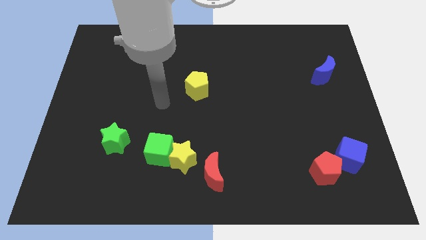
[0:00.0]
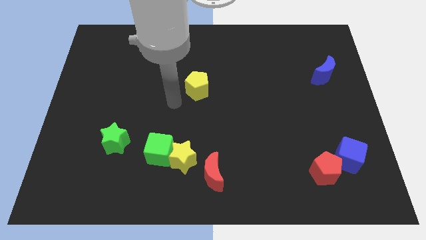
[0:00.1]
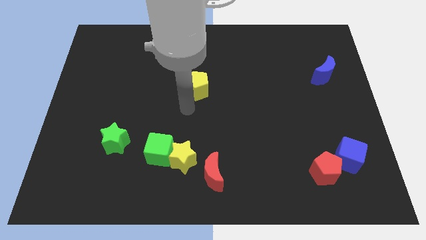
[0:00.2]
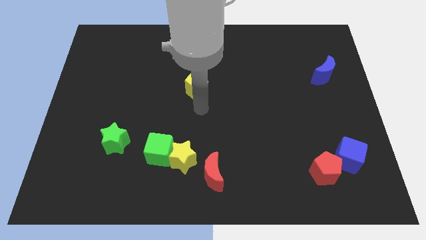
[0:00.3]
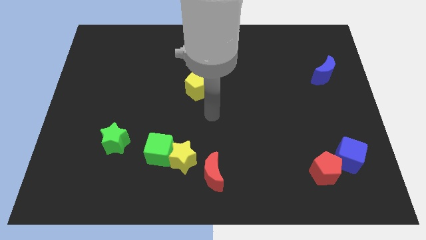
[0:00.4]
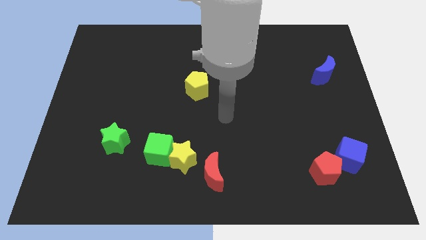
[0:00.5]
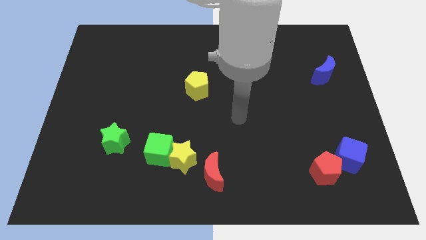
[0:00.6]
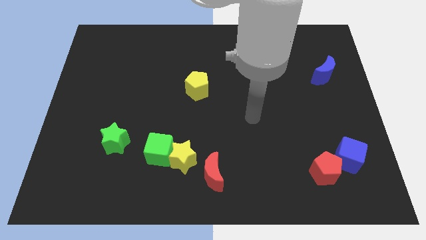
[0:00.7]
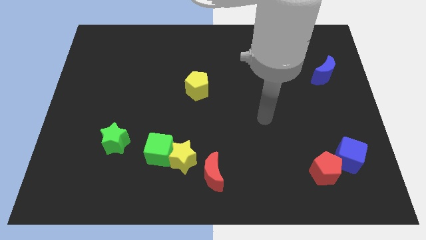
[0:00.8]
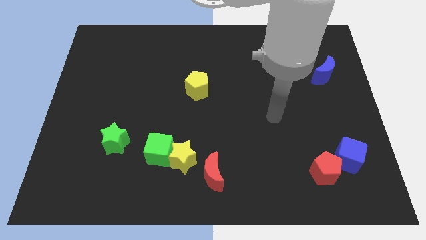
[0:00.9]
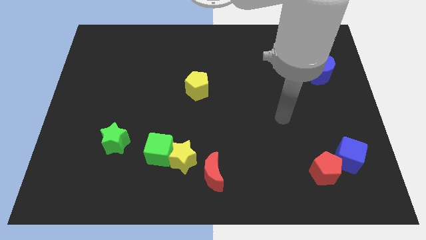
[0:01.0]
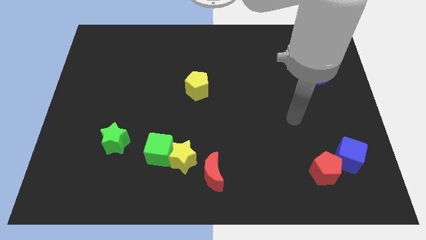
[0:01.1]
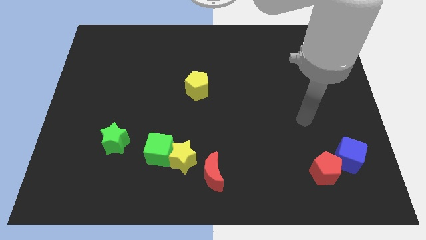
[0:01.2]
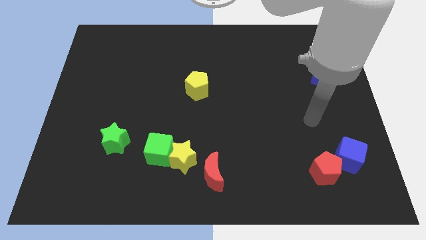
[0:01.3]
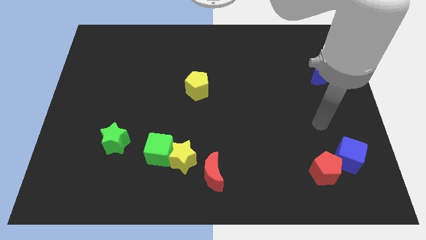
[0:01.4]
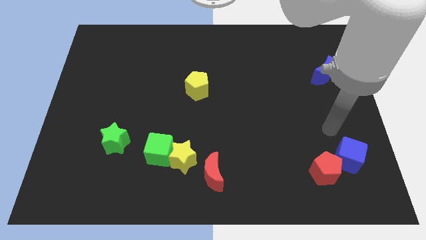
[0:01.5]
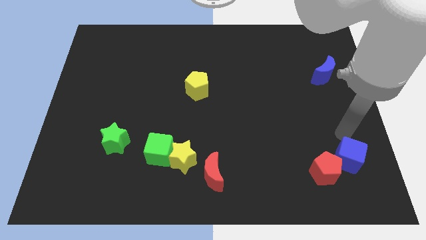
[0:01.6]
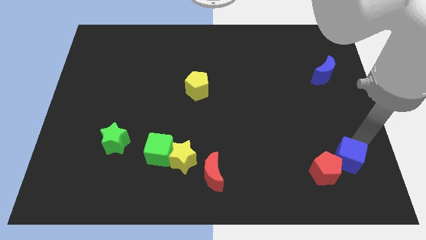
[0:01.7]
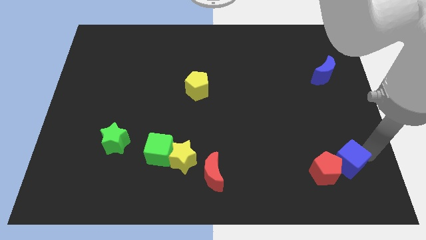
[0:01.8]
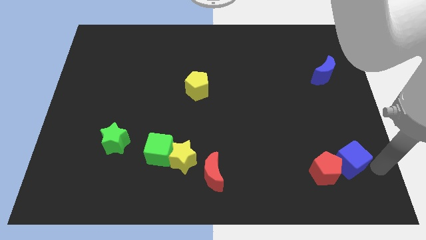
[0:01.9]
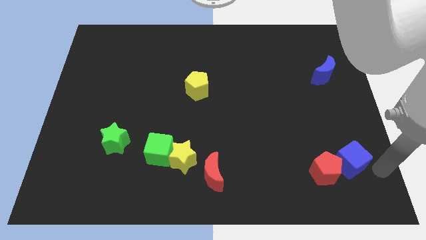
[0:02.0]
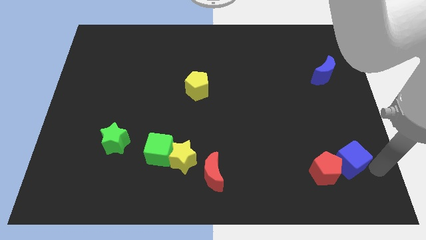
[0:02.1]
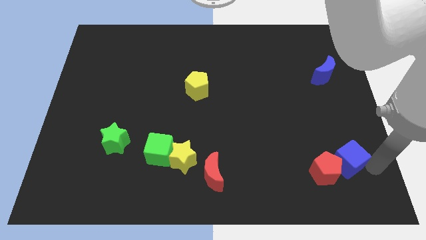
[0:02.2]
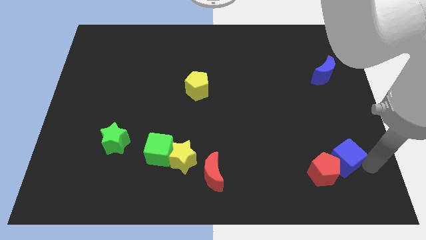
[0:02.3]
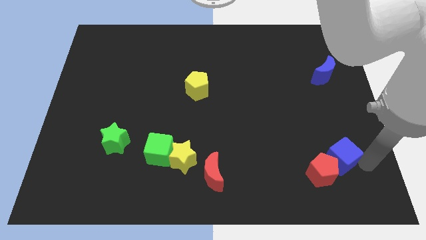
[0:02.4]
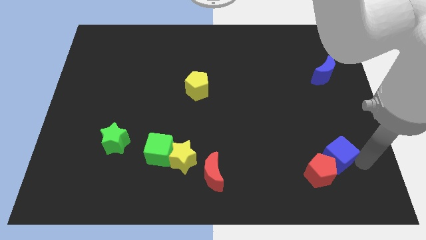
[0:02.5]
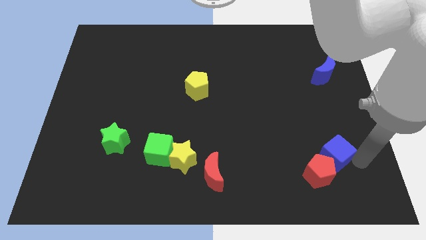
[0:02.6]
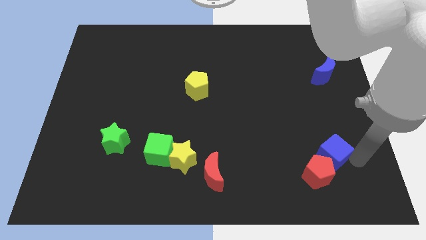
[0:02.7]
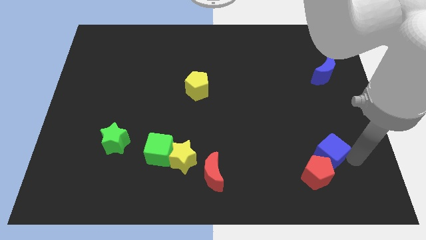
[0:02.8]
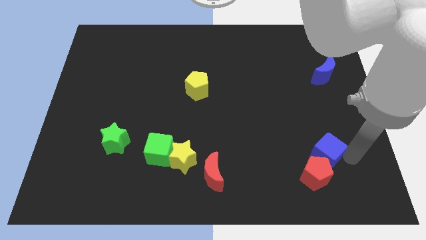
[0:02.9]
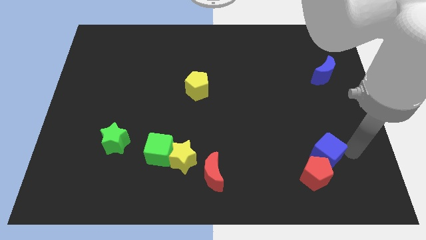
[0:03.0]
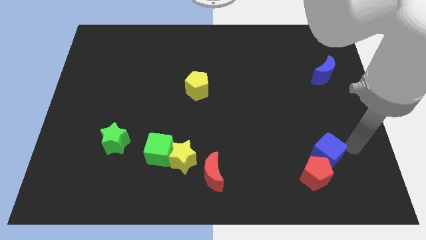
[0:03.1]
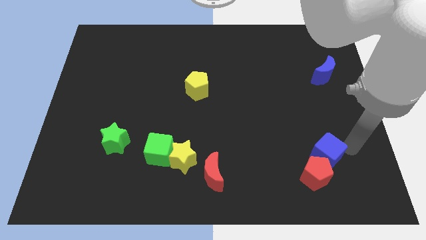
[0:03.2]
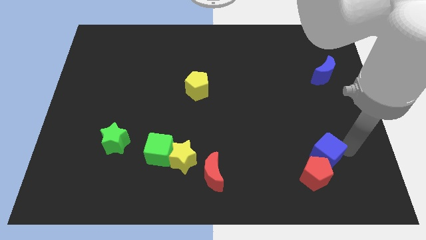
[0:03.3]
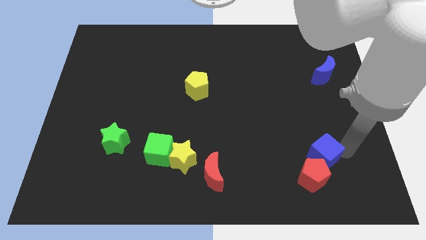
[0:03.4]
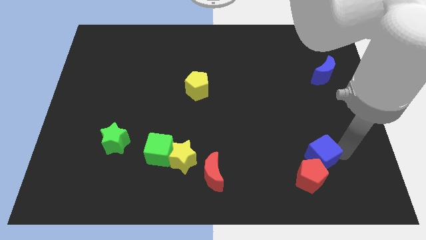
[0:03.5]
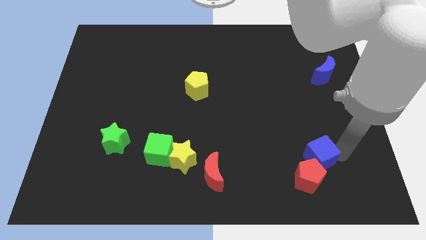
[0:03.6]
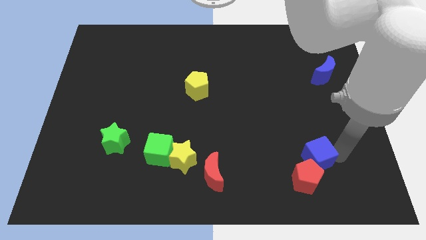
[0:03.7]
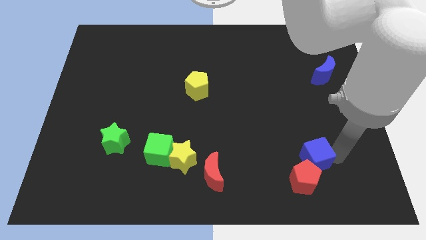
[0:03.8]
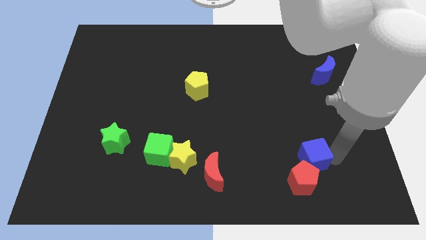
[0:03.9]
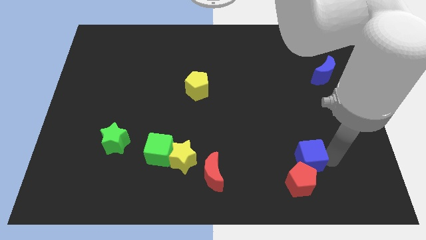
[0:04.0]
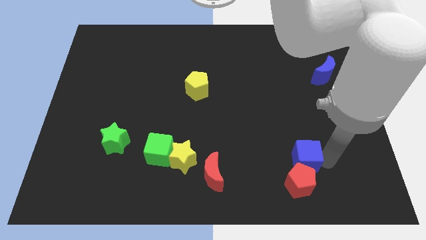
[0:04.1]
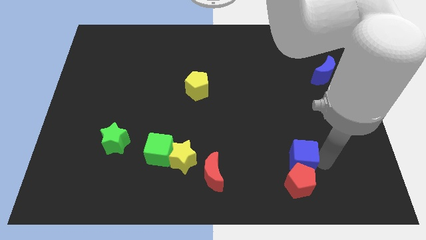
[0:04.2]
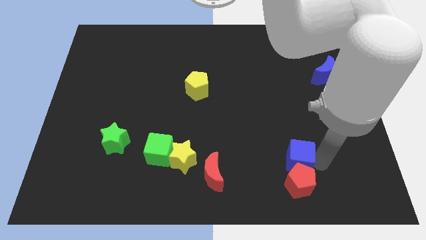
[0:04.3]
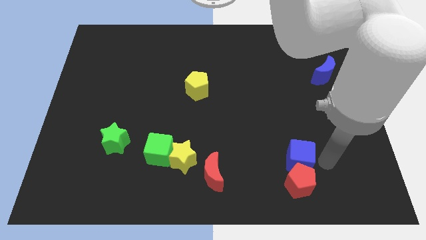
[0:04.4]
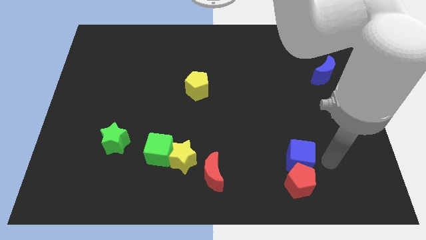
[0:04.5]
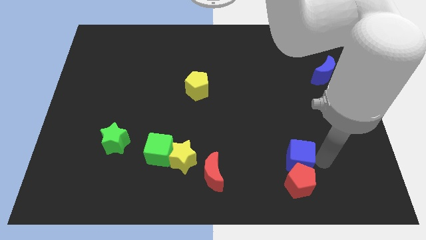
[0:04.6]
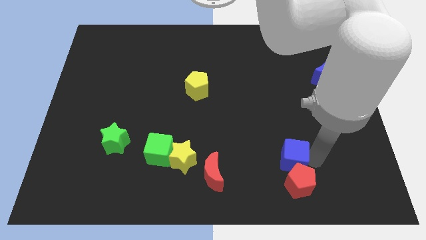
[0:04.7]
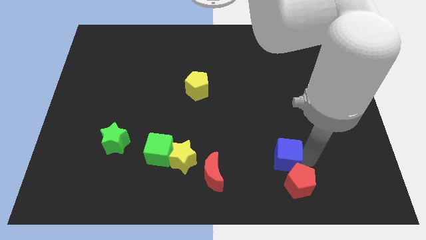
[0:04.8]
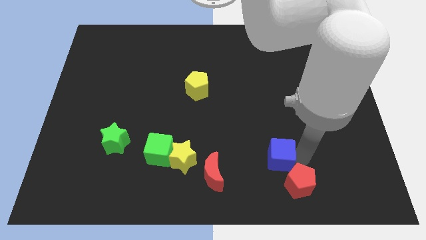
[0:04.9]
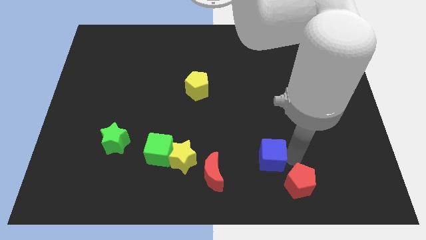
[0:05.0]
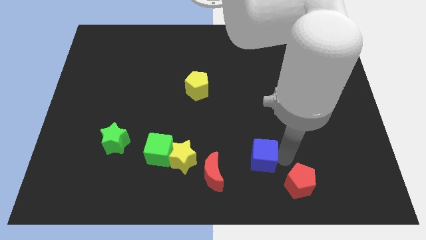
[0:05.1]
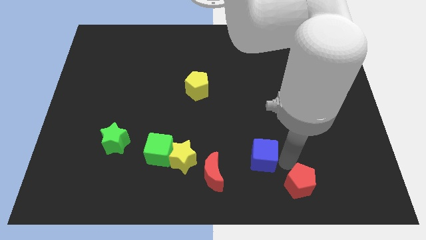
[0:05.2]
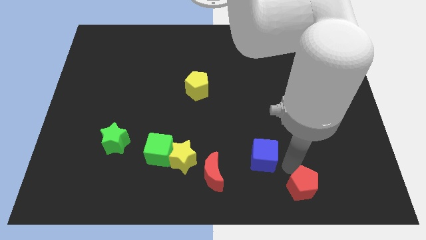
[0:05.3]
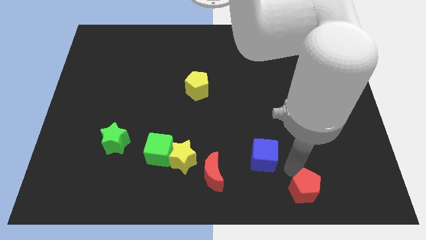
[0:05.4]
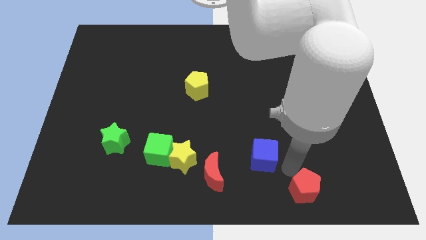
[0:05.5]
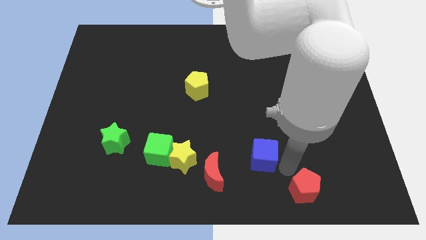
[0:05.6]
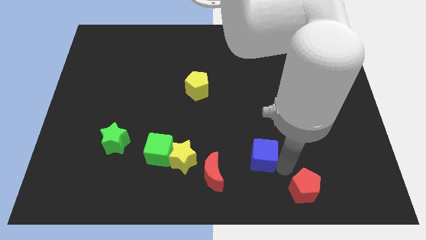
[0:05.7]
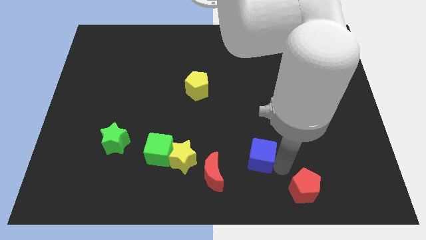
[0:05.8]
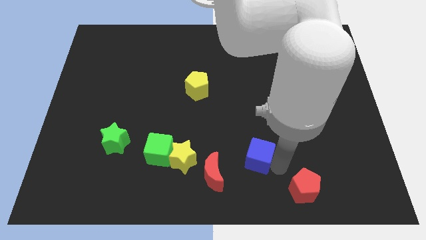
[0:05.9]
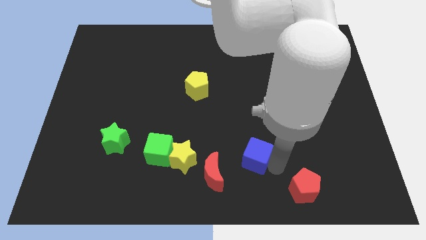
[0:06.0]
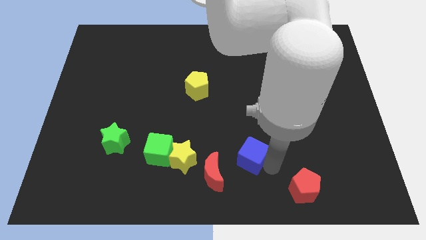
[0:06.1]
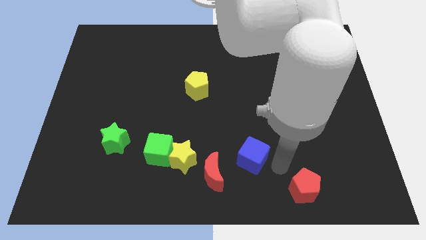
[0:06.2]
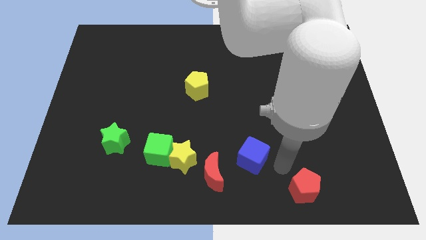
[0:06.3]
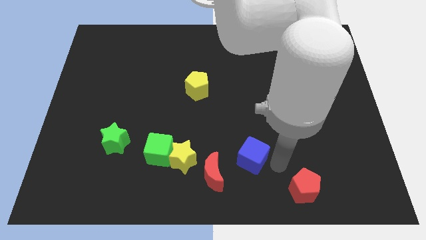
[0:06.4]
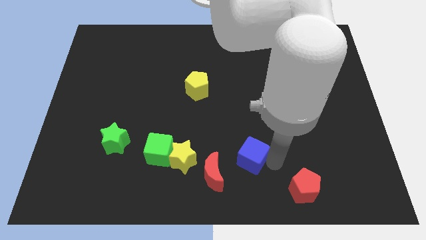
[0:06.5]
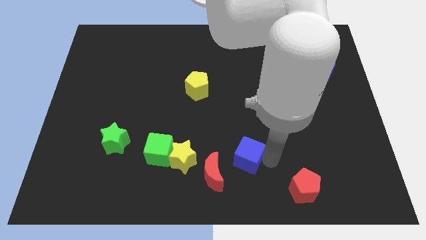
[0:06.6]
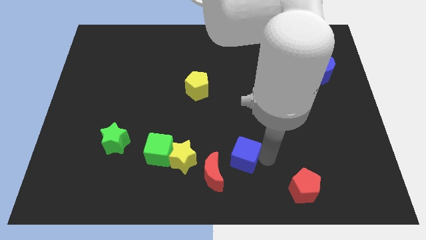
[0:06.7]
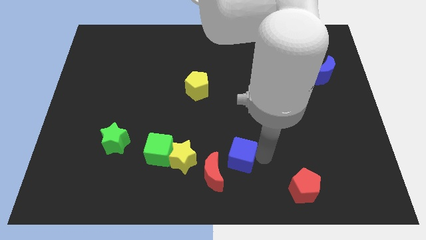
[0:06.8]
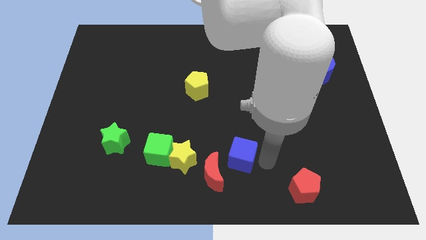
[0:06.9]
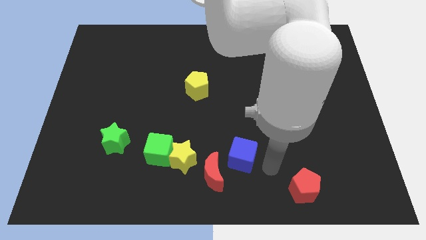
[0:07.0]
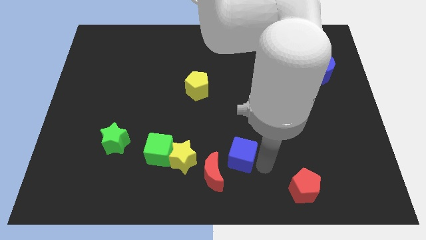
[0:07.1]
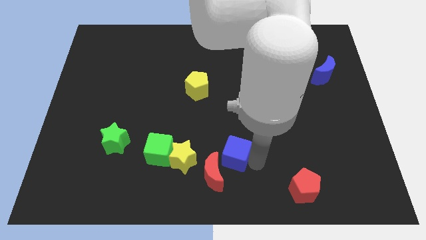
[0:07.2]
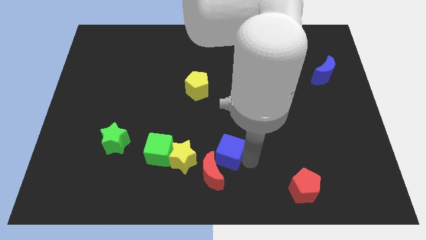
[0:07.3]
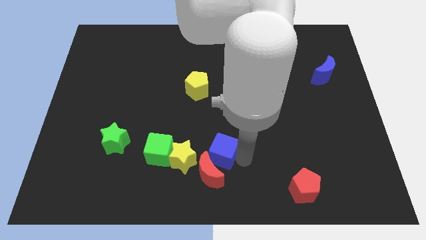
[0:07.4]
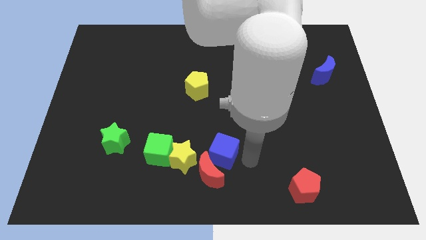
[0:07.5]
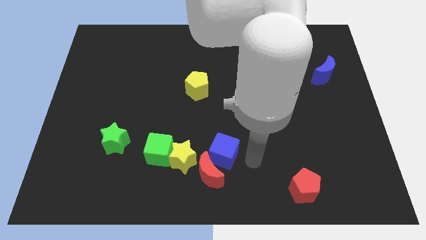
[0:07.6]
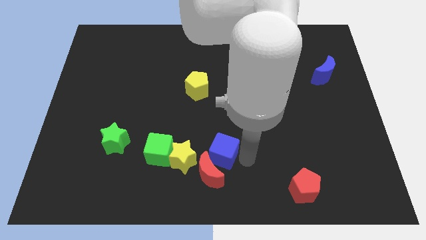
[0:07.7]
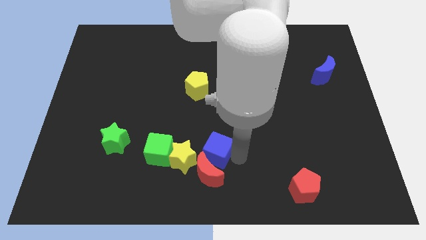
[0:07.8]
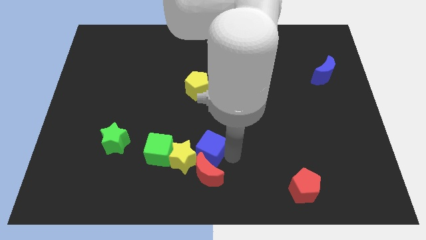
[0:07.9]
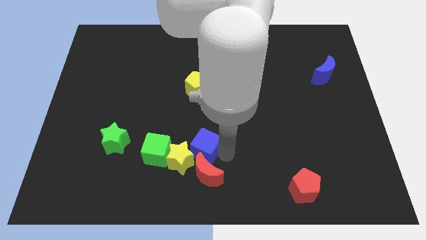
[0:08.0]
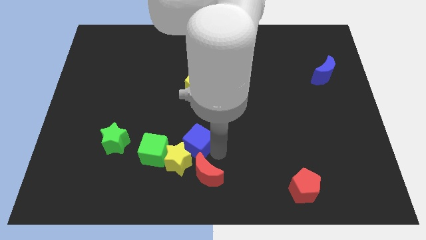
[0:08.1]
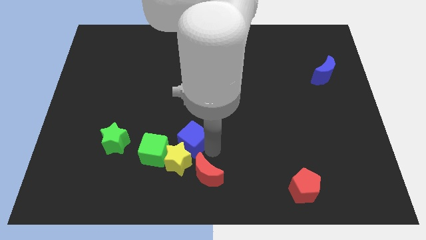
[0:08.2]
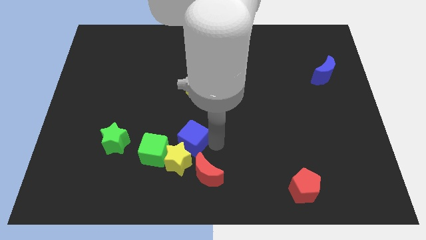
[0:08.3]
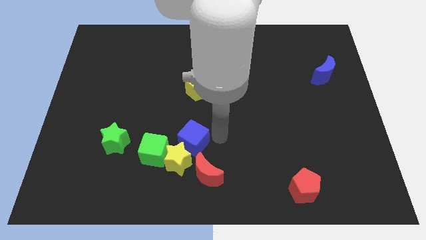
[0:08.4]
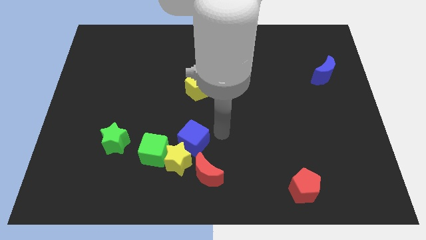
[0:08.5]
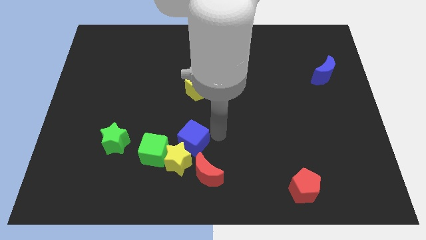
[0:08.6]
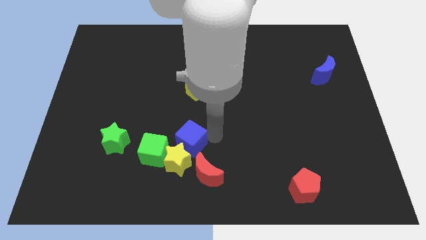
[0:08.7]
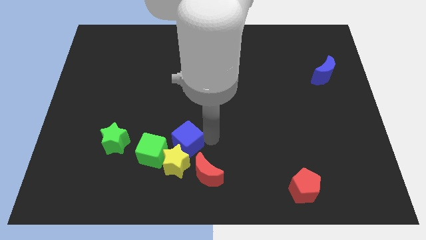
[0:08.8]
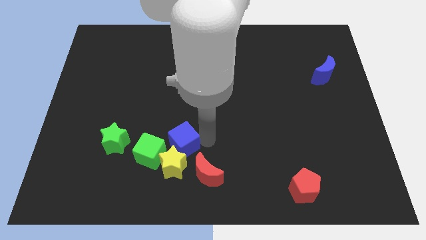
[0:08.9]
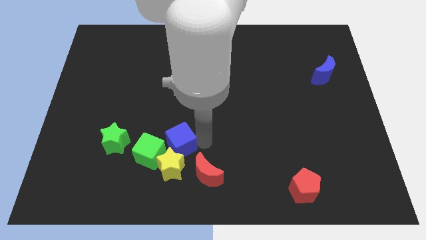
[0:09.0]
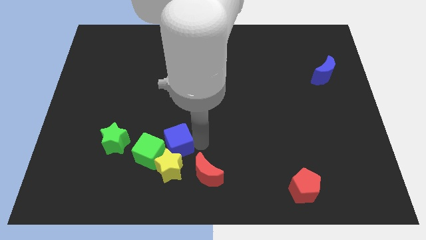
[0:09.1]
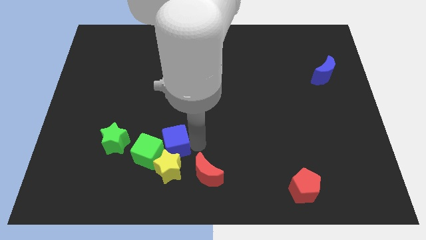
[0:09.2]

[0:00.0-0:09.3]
put the blue cube next to the green cube
